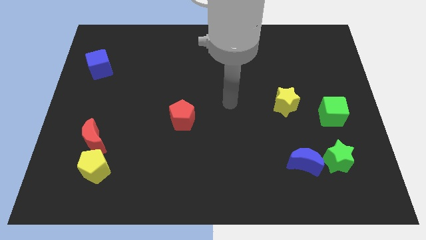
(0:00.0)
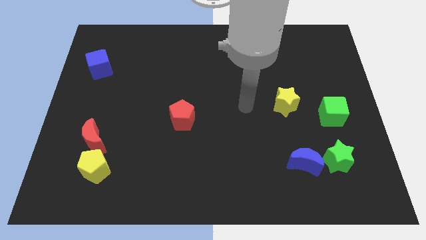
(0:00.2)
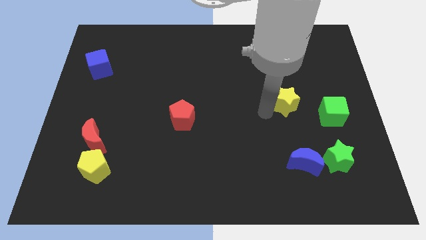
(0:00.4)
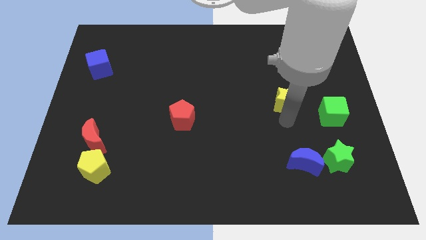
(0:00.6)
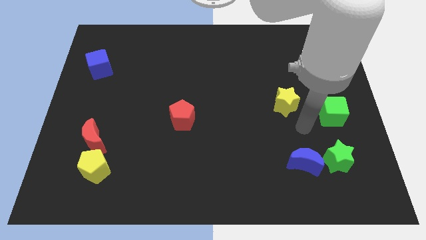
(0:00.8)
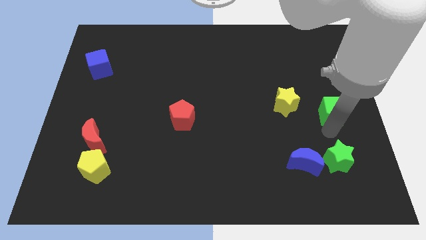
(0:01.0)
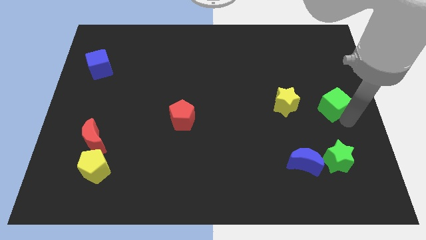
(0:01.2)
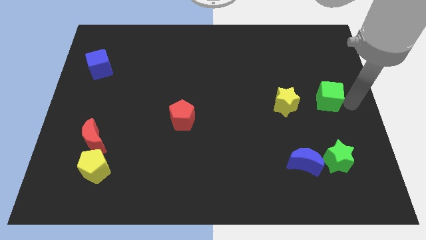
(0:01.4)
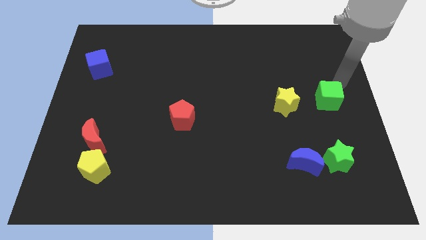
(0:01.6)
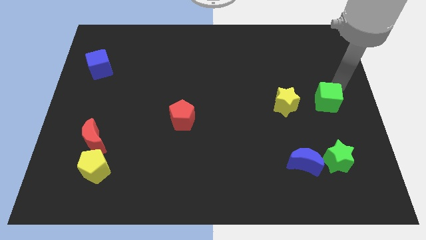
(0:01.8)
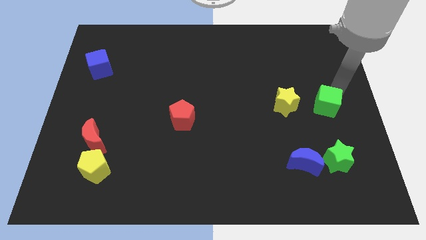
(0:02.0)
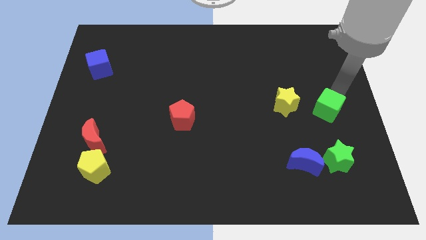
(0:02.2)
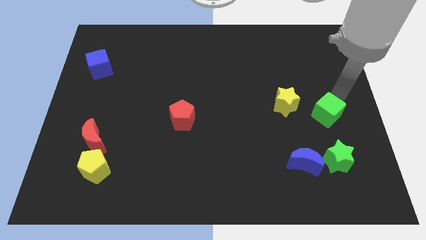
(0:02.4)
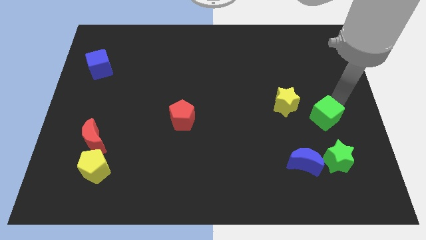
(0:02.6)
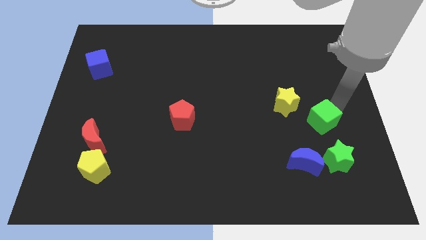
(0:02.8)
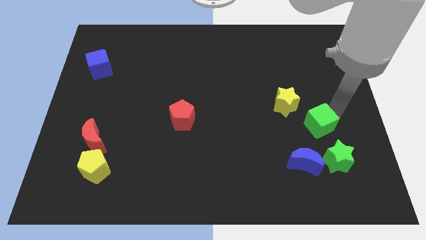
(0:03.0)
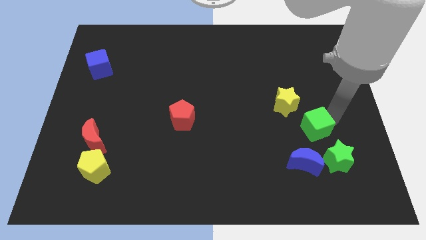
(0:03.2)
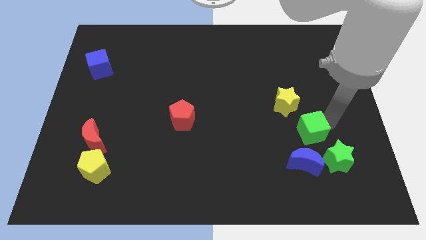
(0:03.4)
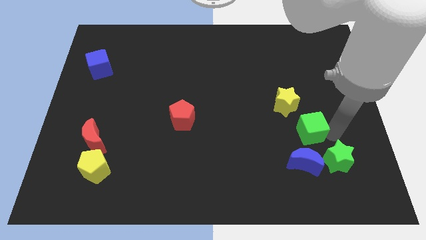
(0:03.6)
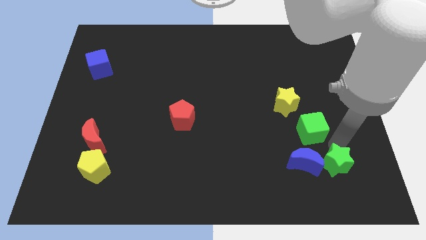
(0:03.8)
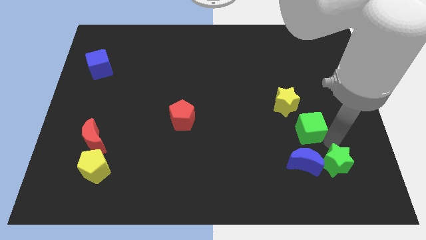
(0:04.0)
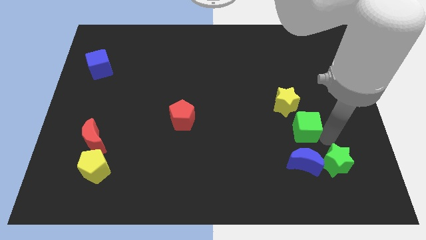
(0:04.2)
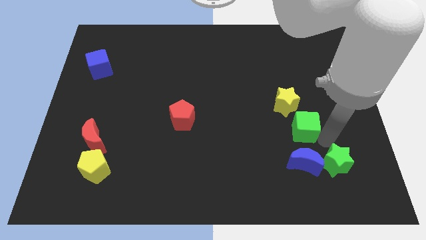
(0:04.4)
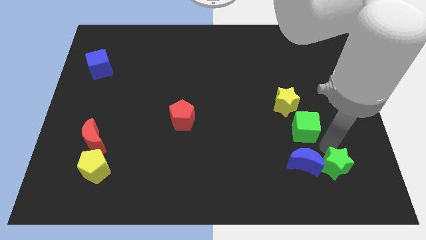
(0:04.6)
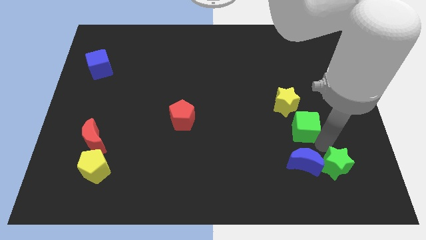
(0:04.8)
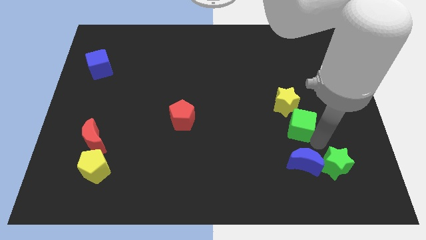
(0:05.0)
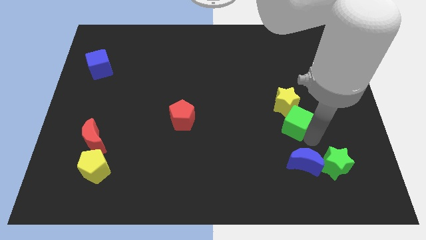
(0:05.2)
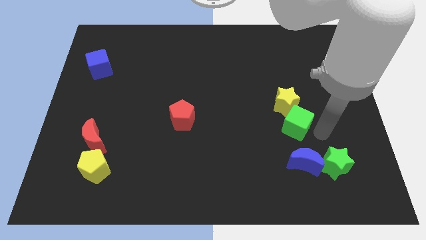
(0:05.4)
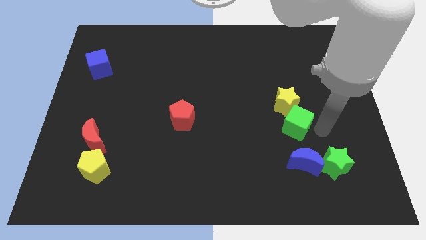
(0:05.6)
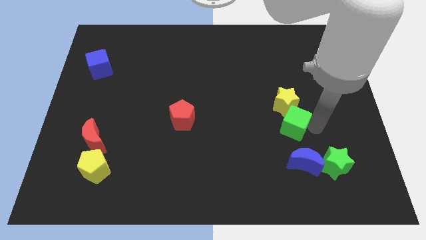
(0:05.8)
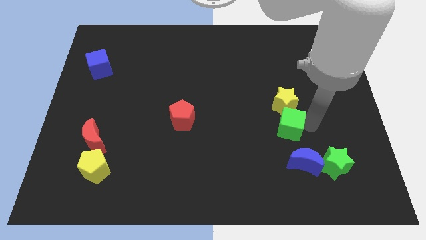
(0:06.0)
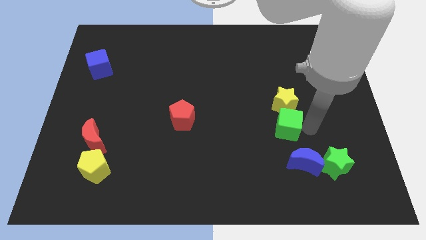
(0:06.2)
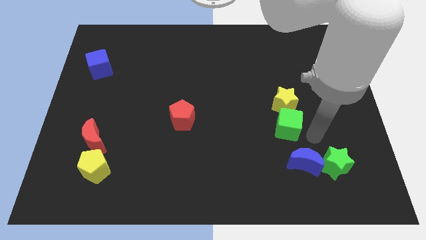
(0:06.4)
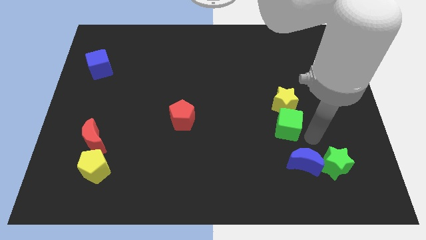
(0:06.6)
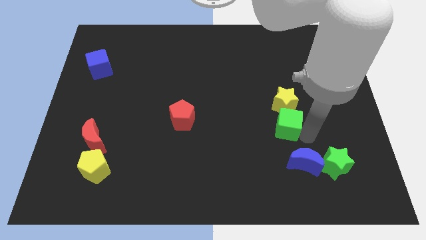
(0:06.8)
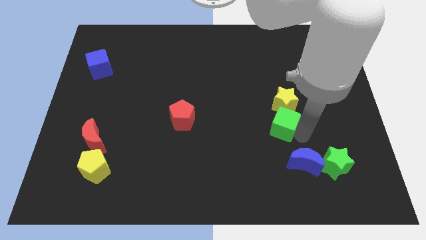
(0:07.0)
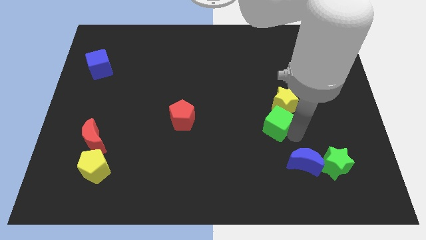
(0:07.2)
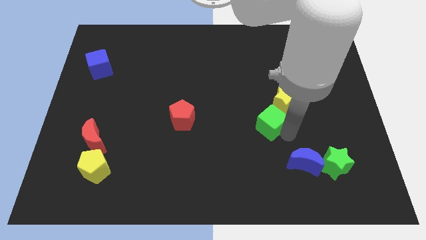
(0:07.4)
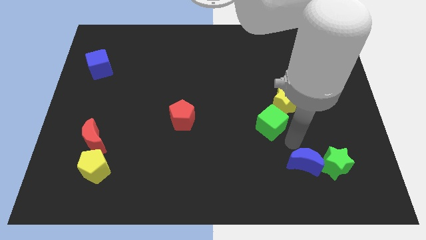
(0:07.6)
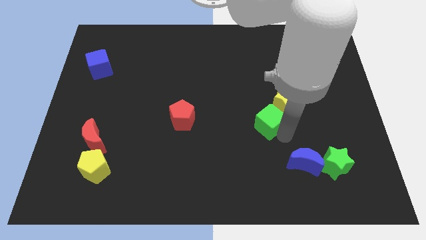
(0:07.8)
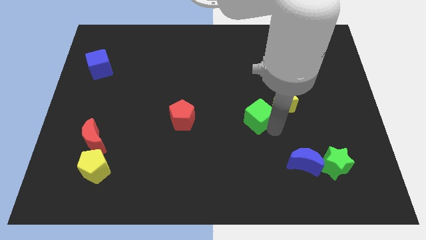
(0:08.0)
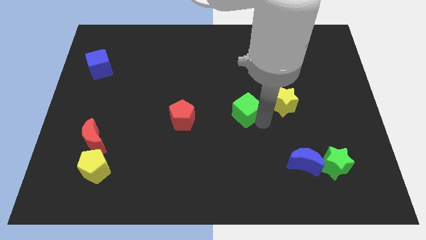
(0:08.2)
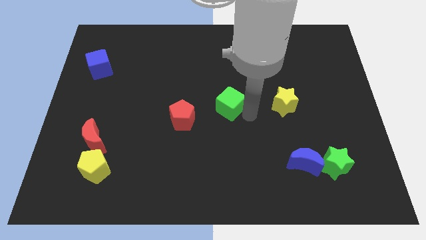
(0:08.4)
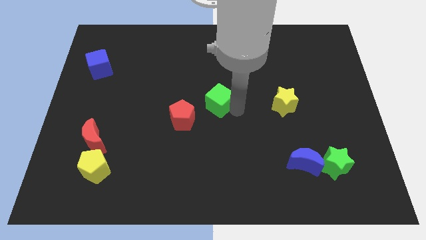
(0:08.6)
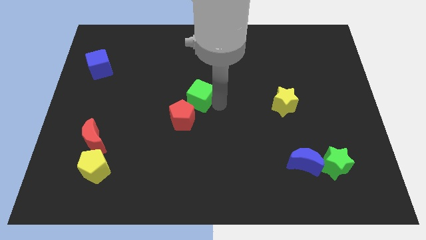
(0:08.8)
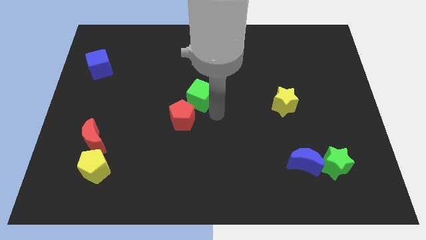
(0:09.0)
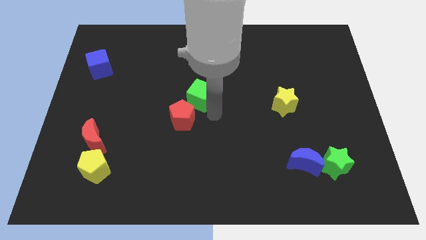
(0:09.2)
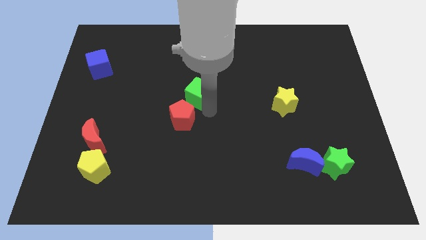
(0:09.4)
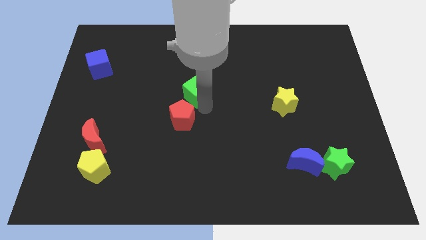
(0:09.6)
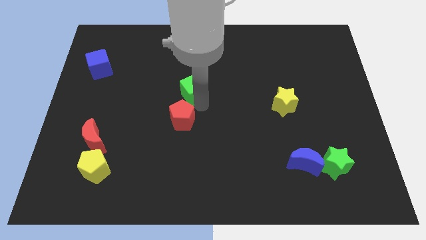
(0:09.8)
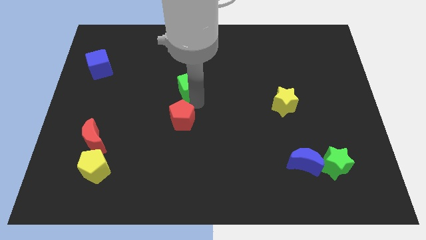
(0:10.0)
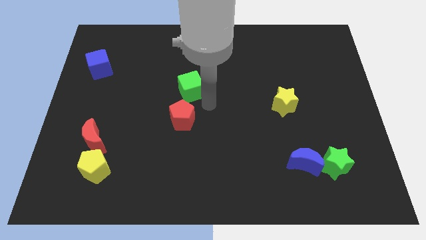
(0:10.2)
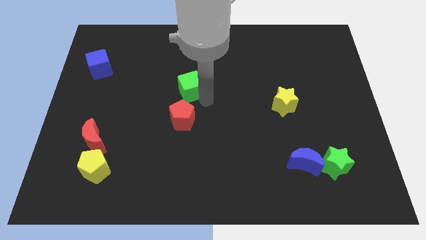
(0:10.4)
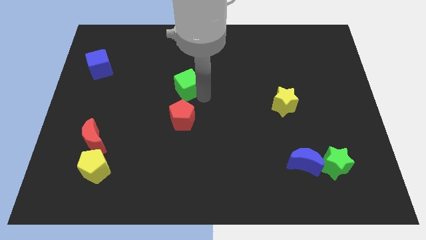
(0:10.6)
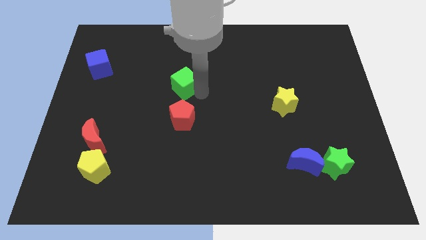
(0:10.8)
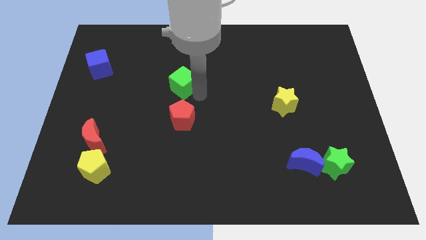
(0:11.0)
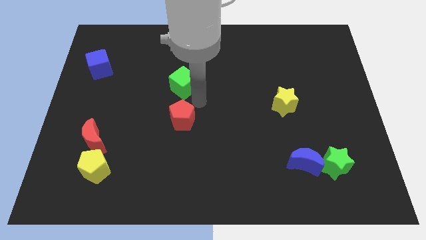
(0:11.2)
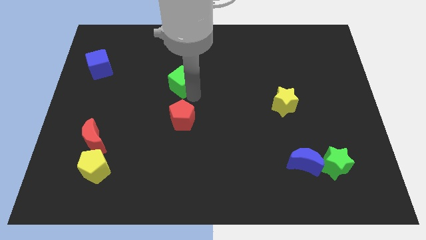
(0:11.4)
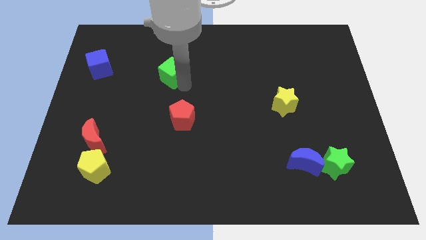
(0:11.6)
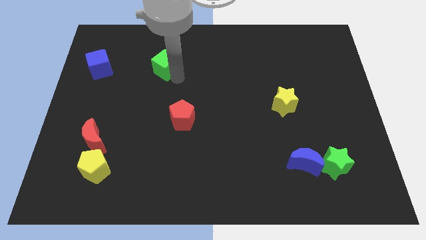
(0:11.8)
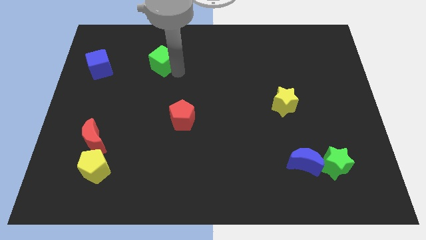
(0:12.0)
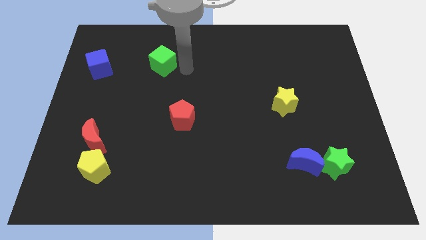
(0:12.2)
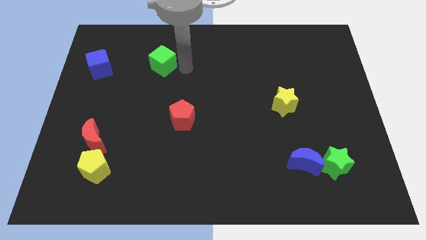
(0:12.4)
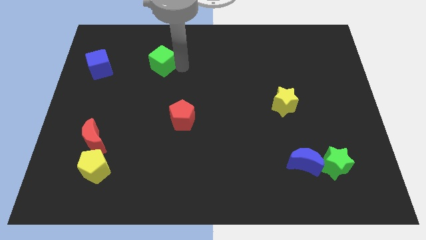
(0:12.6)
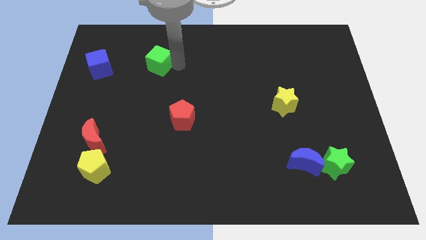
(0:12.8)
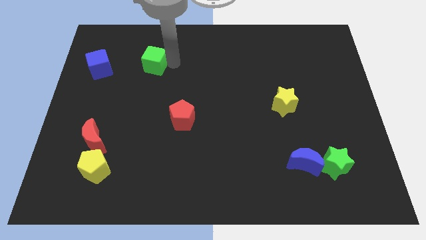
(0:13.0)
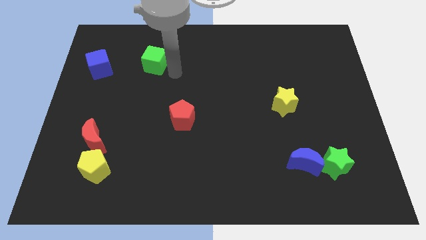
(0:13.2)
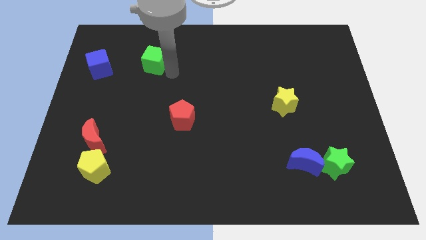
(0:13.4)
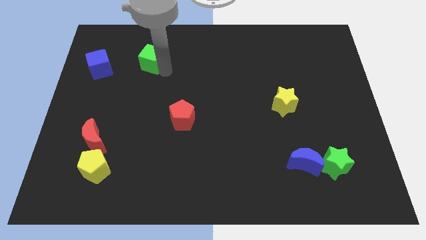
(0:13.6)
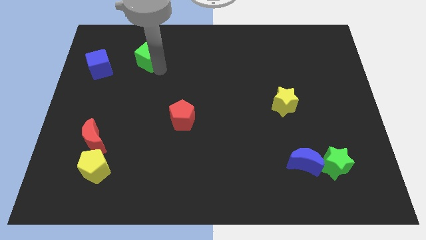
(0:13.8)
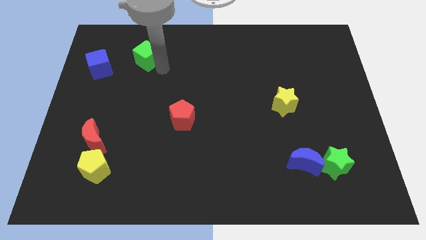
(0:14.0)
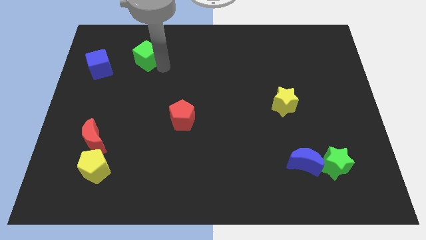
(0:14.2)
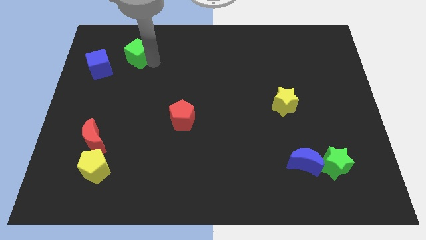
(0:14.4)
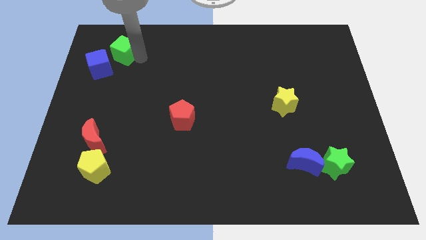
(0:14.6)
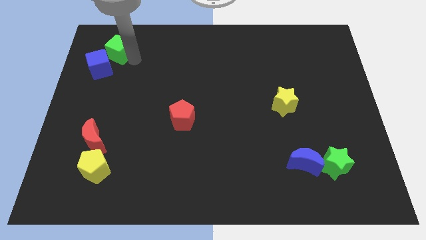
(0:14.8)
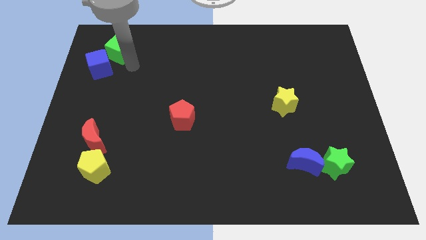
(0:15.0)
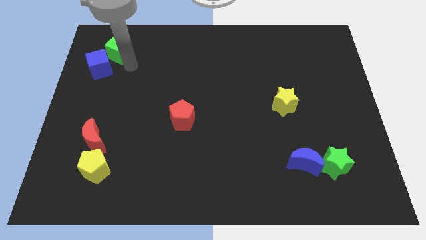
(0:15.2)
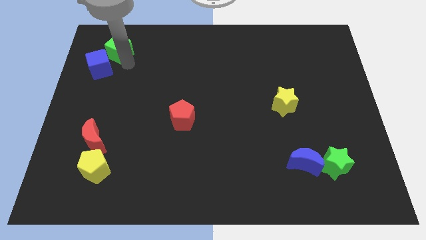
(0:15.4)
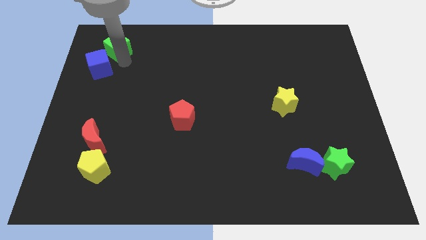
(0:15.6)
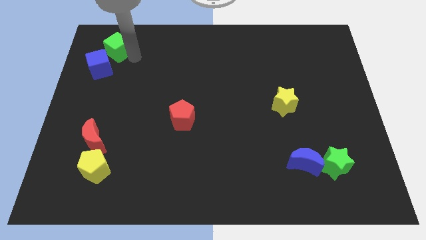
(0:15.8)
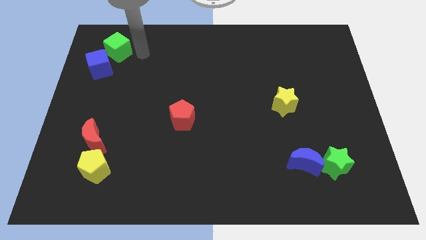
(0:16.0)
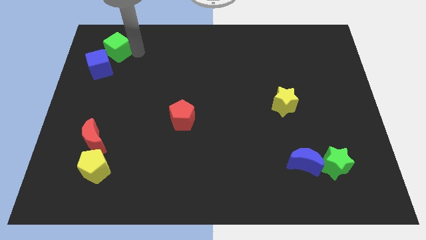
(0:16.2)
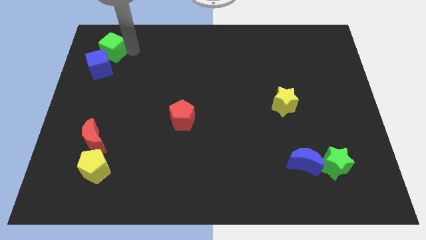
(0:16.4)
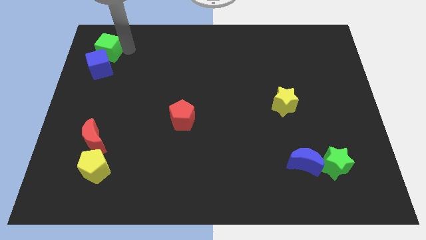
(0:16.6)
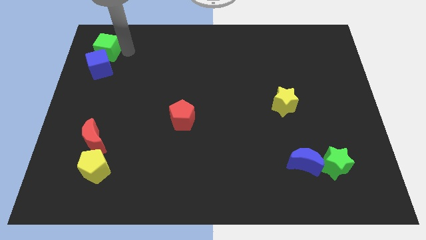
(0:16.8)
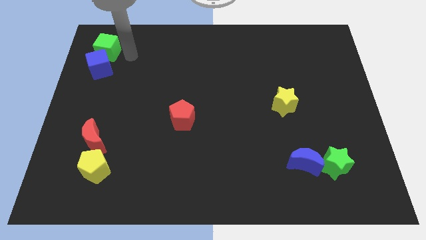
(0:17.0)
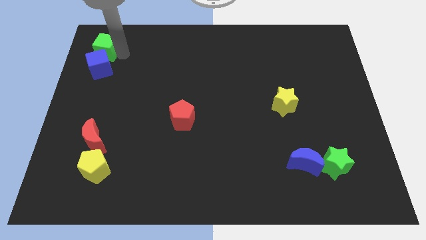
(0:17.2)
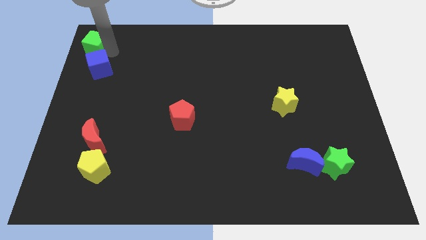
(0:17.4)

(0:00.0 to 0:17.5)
move the green cube to the top left of the board
